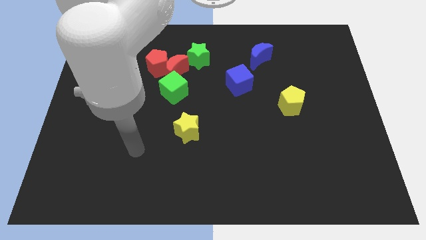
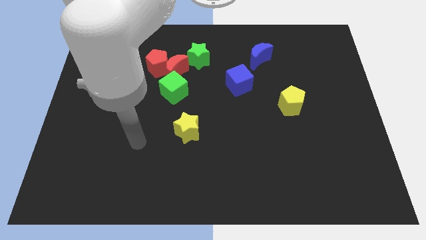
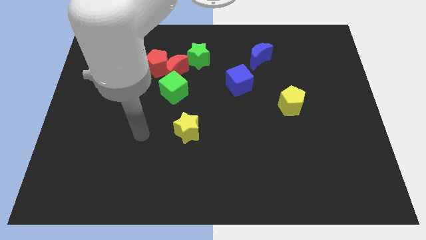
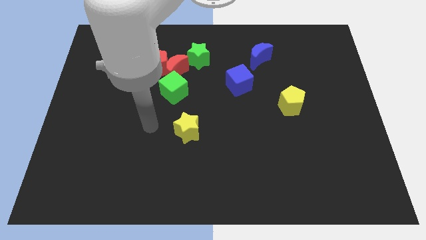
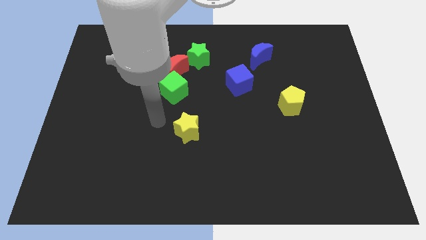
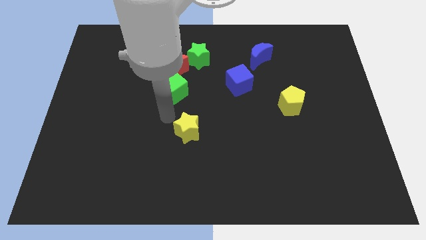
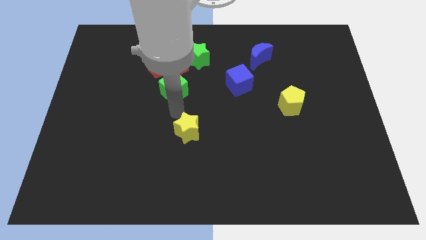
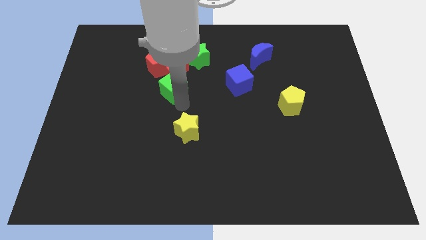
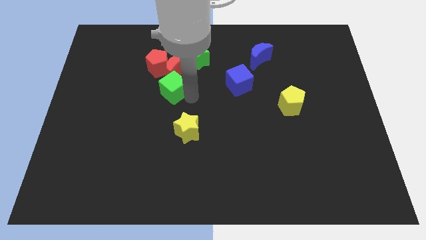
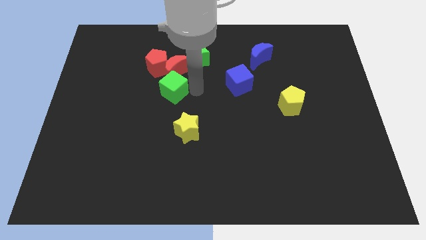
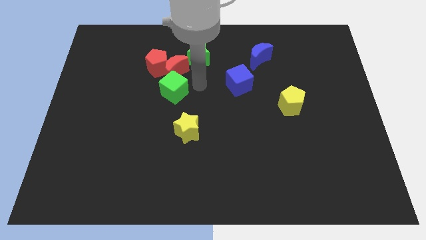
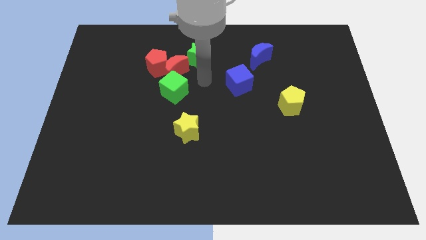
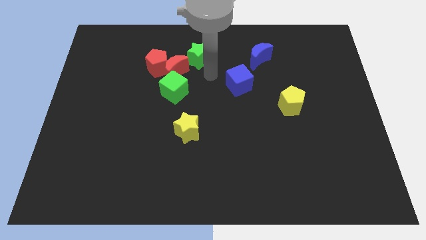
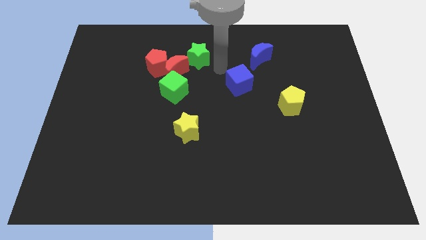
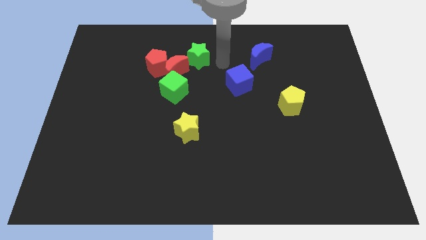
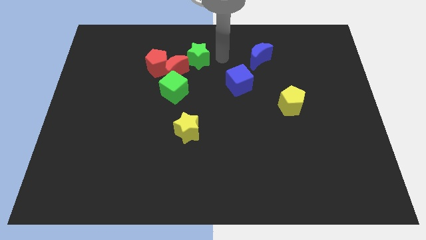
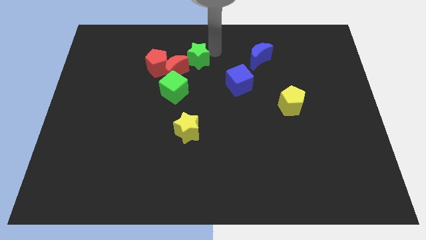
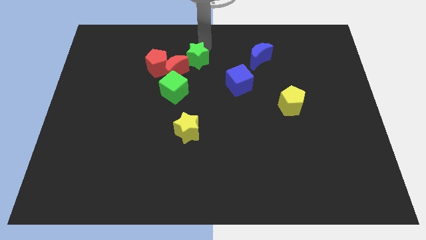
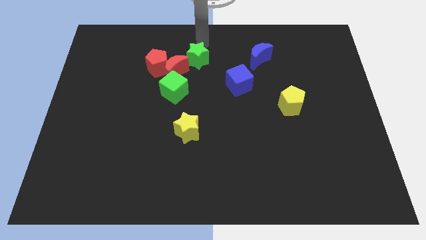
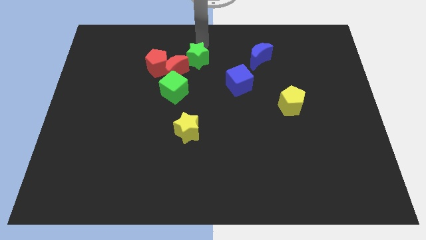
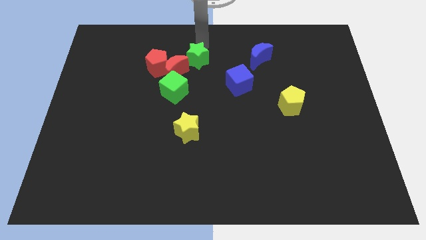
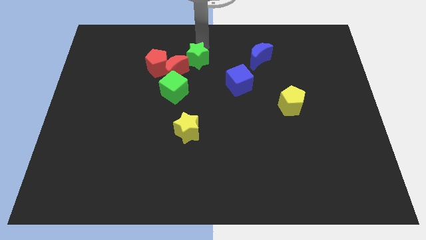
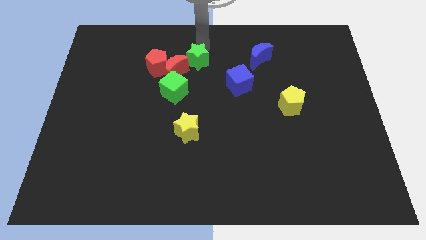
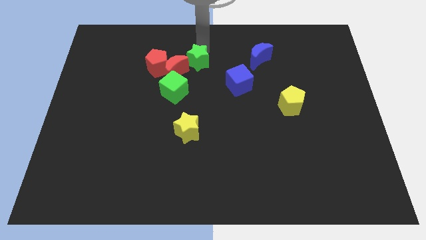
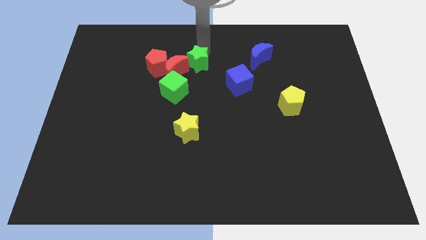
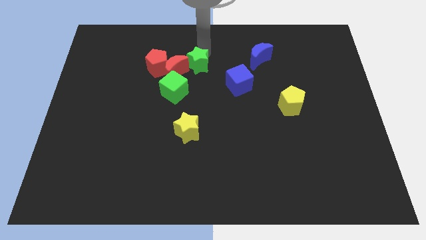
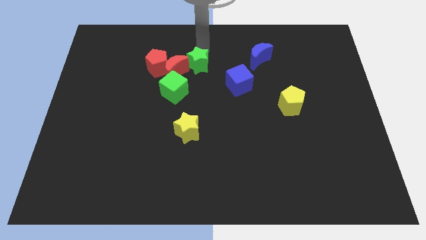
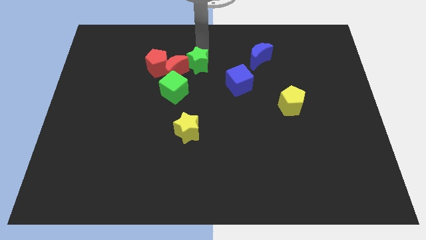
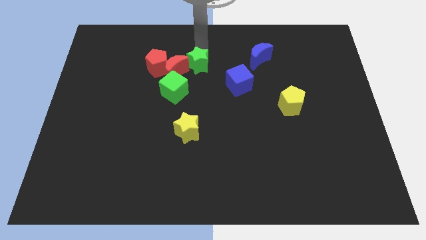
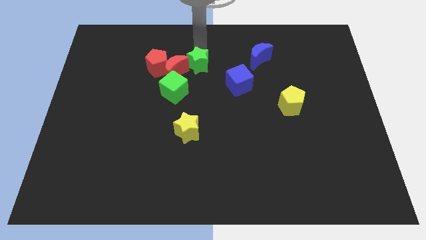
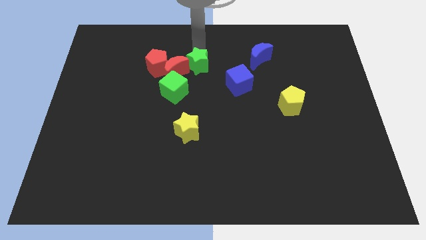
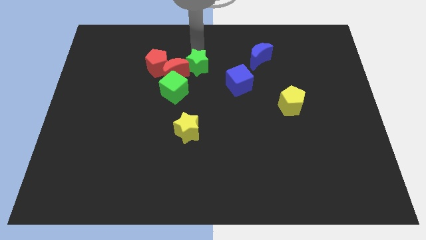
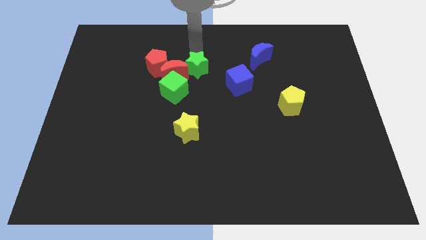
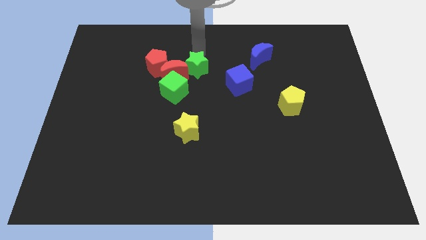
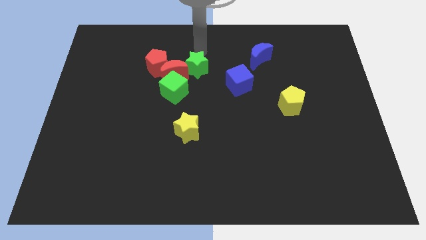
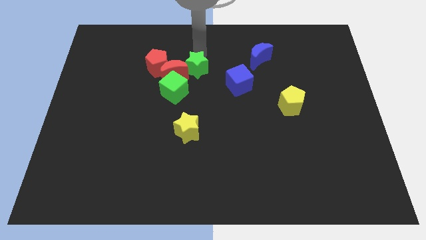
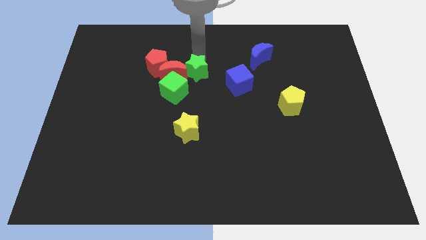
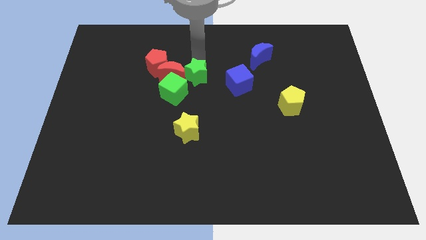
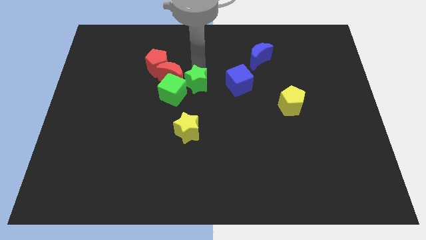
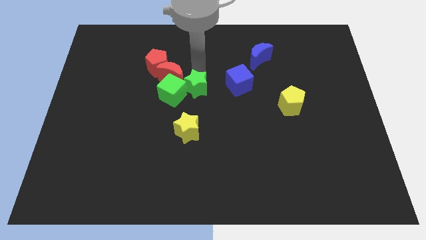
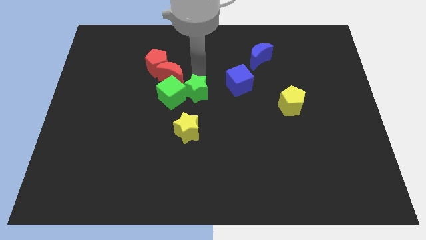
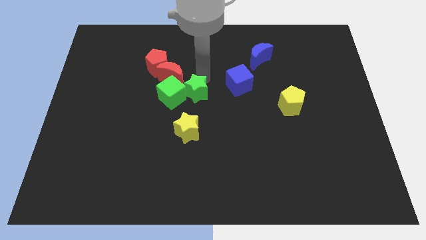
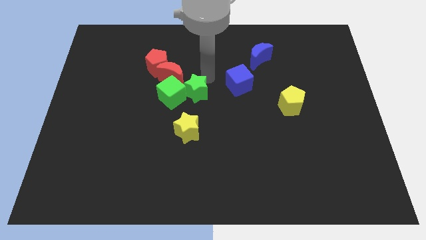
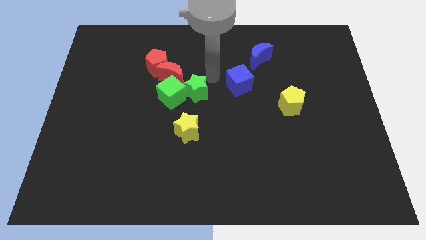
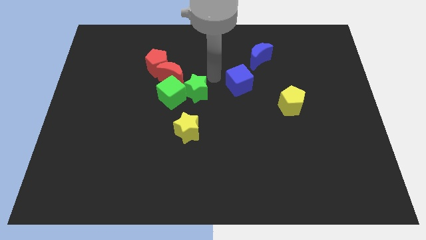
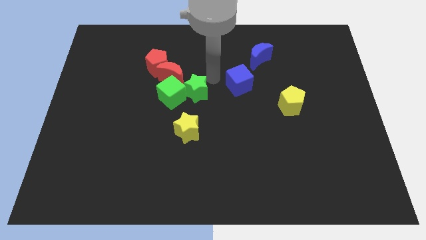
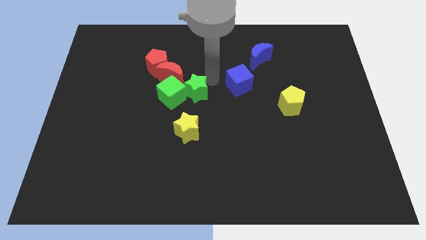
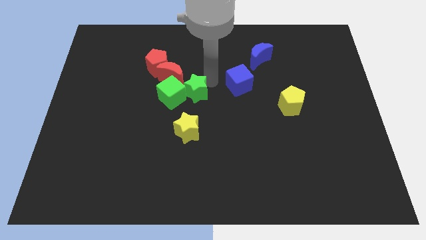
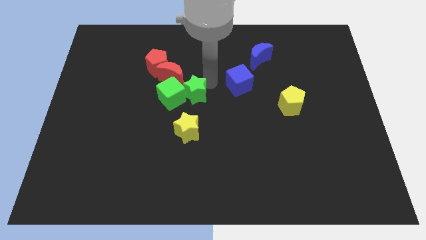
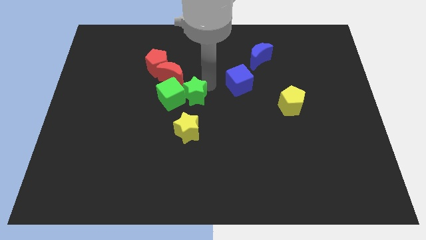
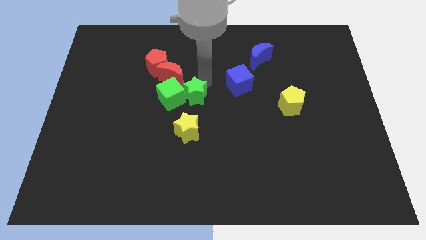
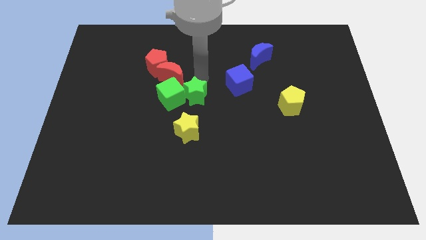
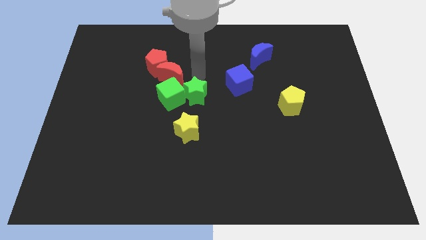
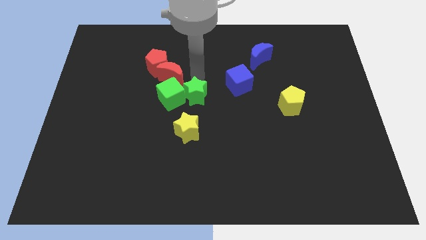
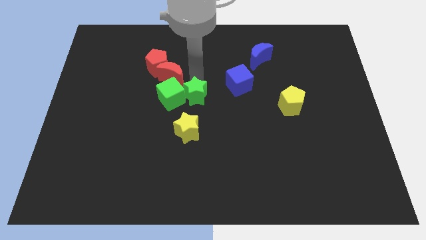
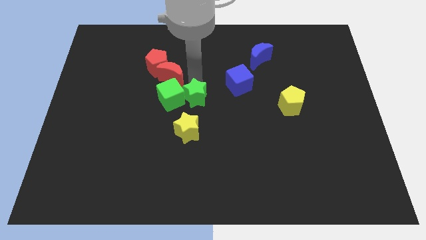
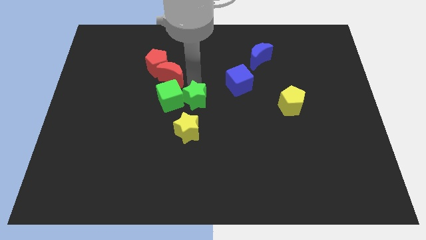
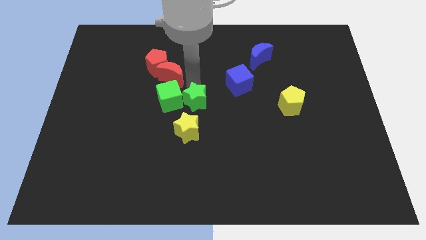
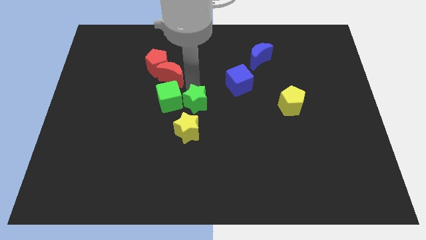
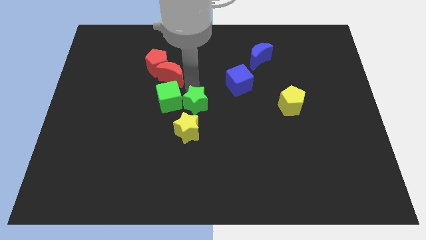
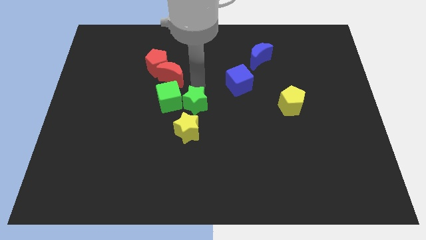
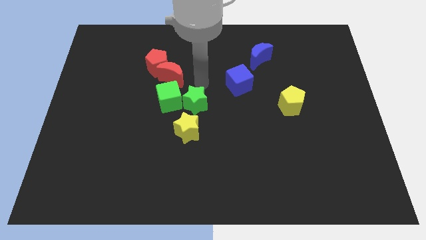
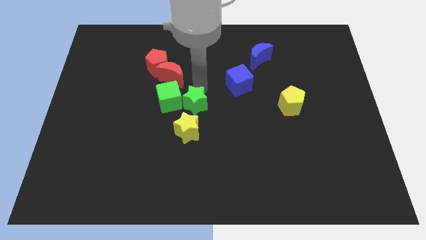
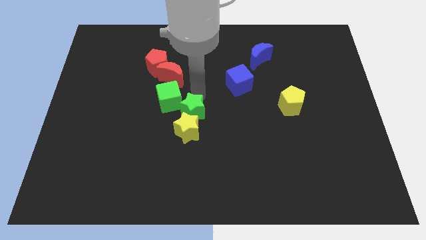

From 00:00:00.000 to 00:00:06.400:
put the green star towards the yellow star

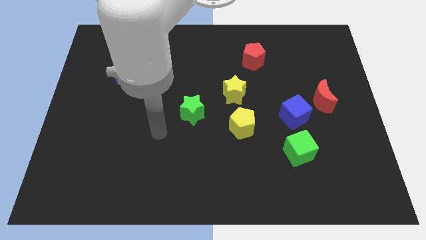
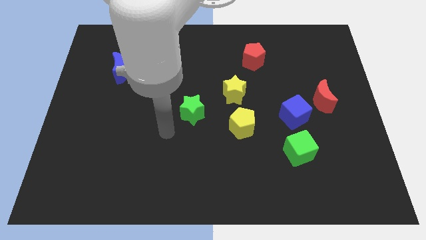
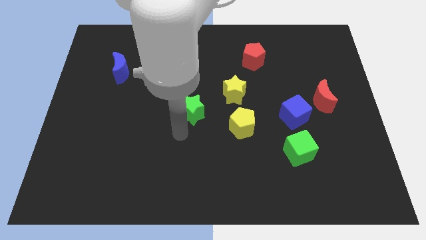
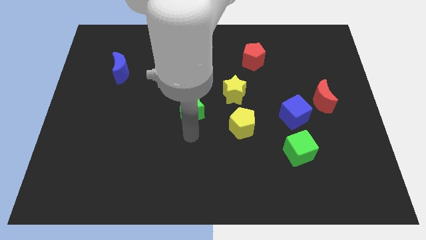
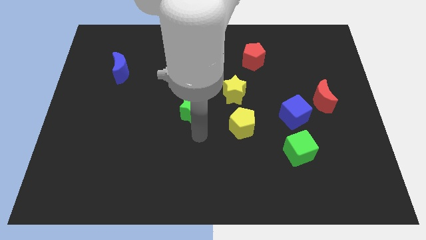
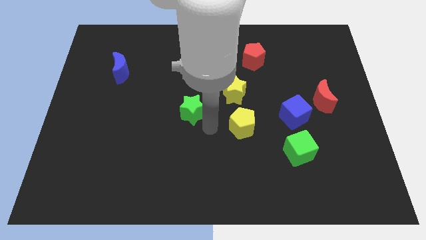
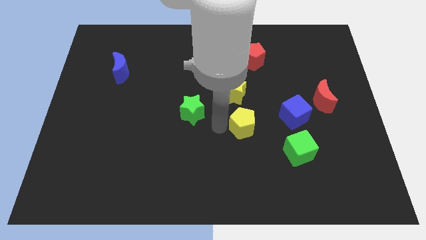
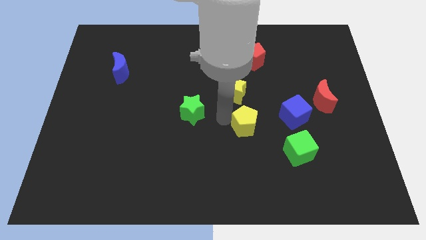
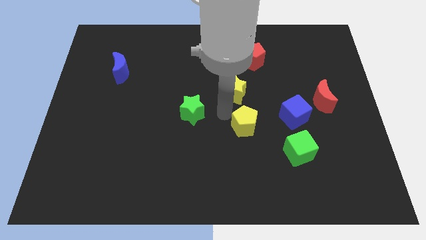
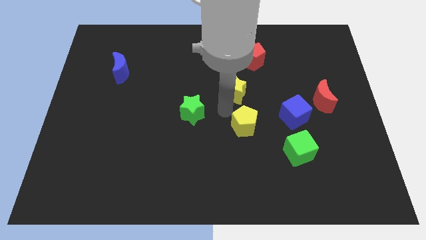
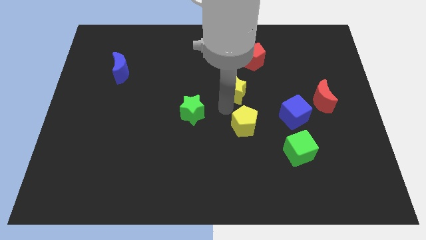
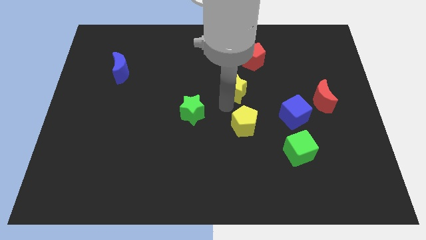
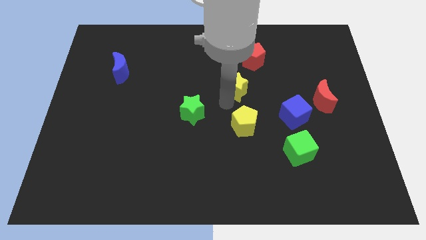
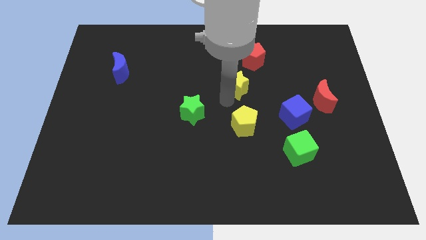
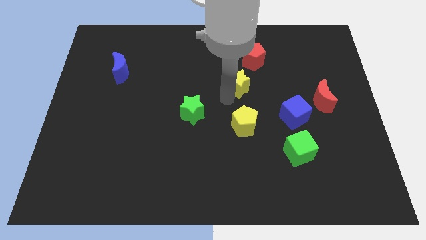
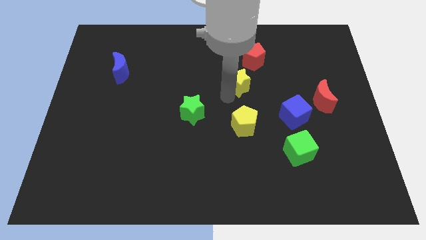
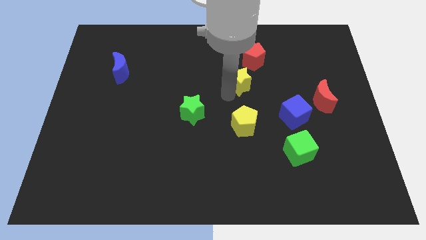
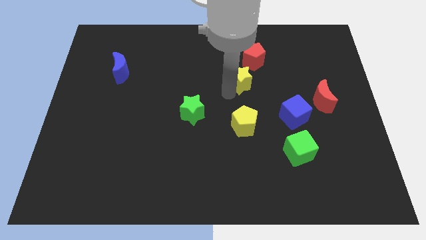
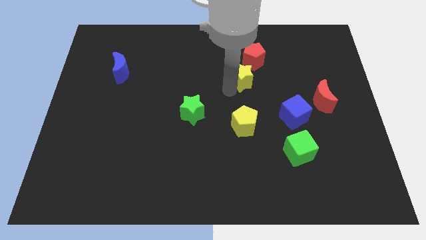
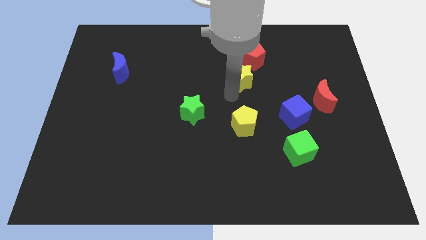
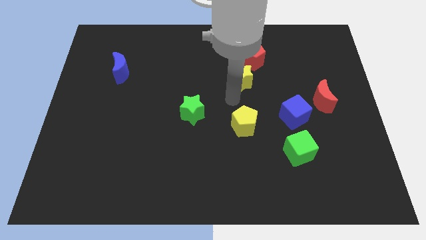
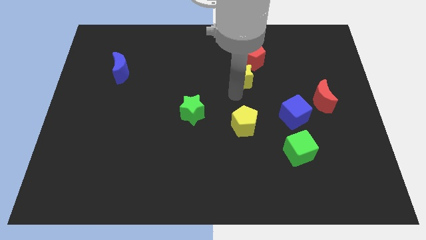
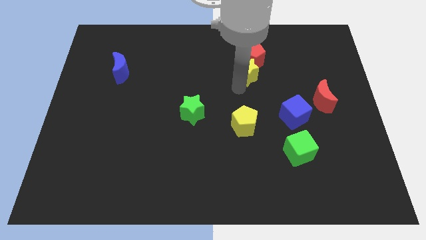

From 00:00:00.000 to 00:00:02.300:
slide the yellow star towards the red pentagon
